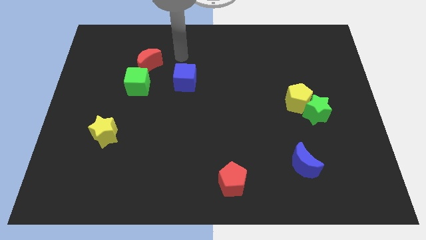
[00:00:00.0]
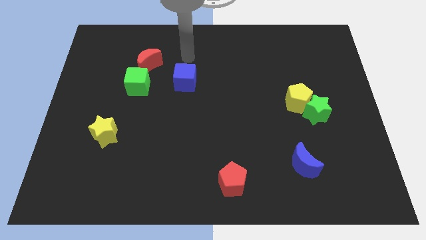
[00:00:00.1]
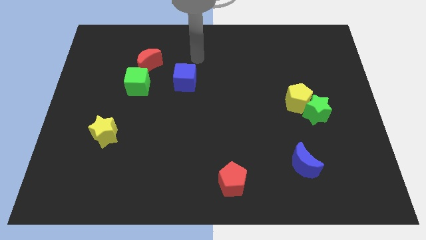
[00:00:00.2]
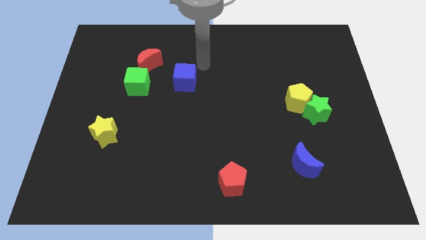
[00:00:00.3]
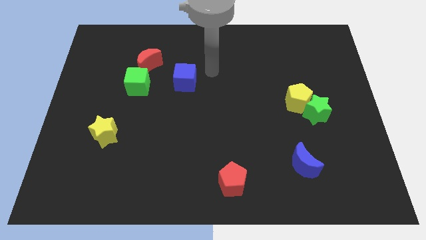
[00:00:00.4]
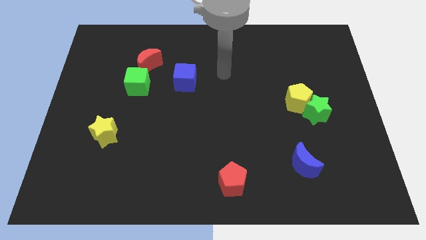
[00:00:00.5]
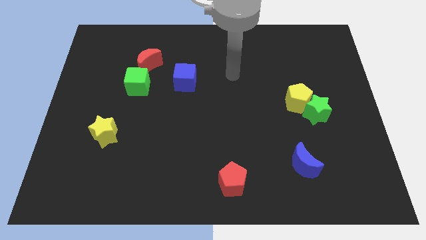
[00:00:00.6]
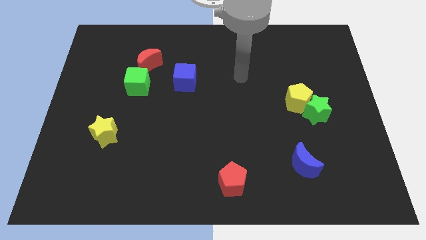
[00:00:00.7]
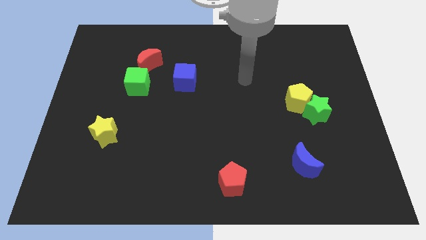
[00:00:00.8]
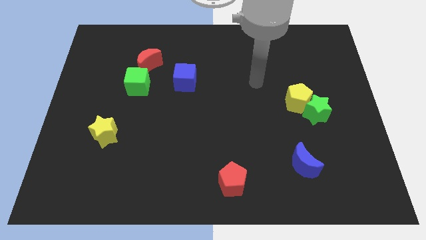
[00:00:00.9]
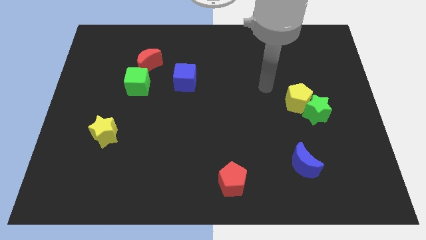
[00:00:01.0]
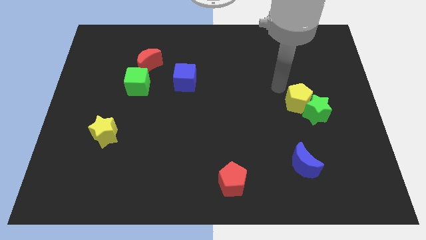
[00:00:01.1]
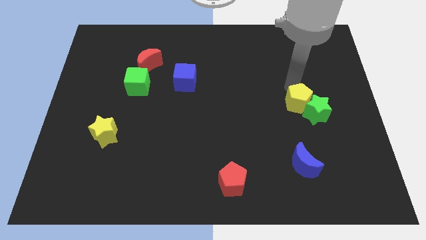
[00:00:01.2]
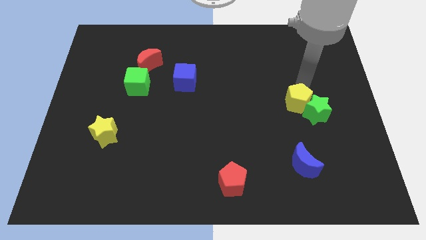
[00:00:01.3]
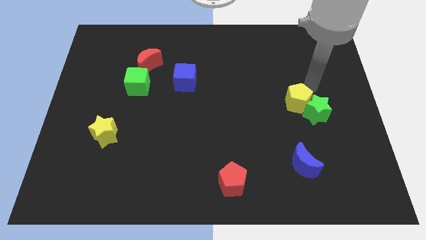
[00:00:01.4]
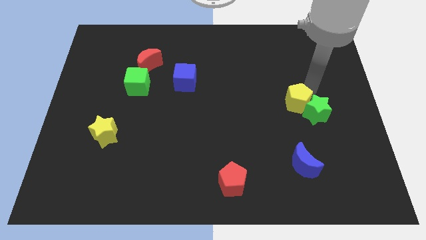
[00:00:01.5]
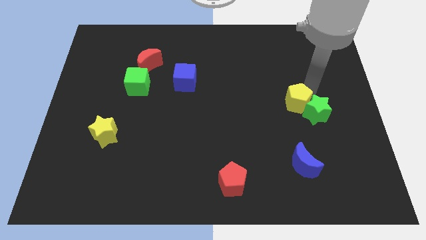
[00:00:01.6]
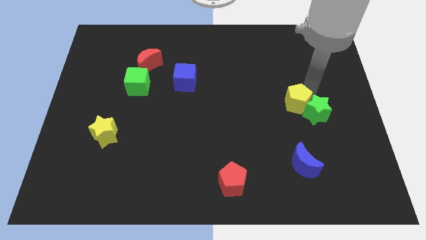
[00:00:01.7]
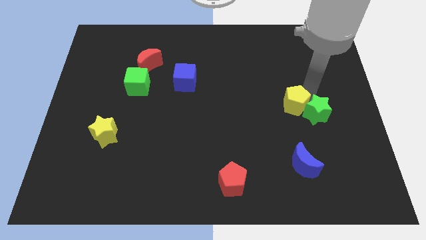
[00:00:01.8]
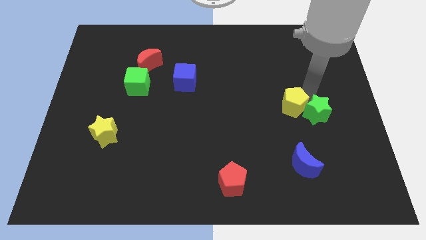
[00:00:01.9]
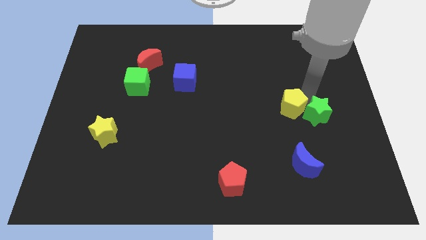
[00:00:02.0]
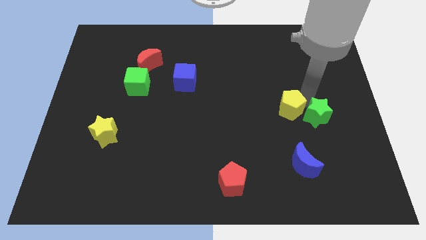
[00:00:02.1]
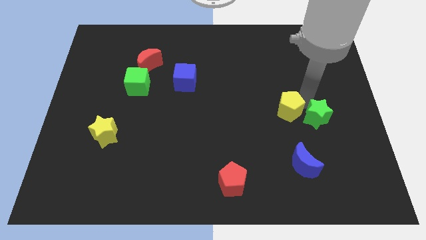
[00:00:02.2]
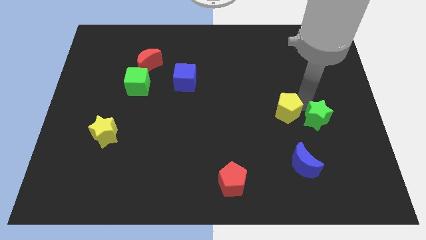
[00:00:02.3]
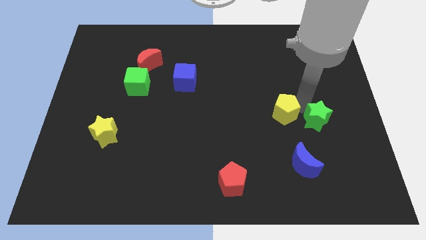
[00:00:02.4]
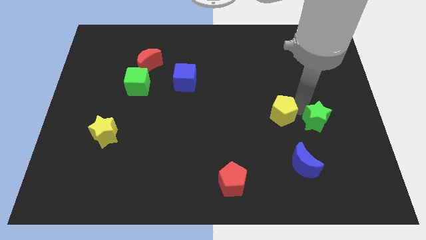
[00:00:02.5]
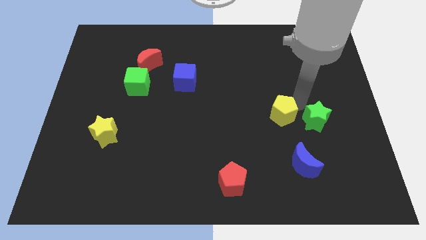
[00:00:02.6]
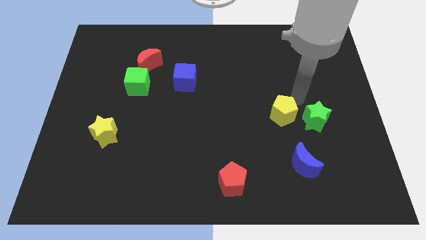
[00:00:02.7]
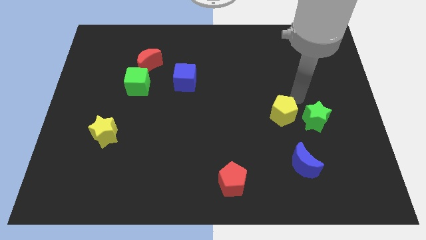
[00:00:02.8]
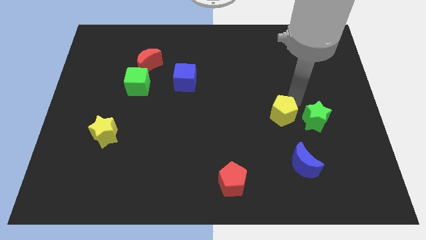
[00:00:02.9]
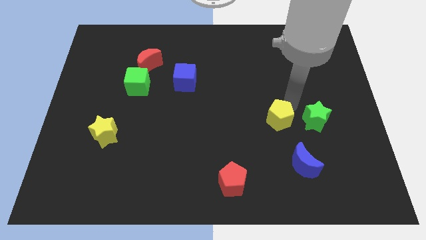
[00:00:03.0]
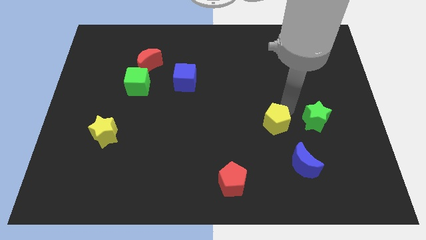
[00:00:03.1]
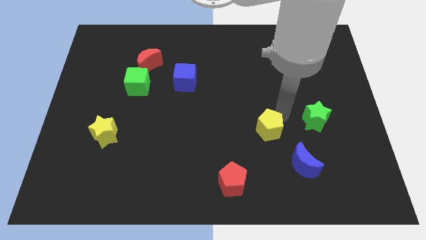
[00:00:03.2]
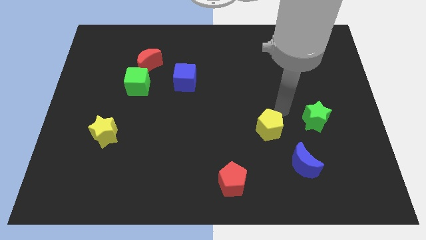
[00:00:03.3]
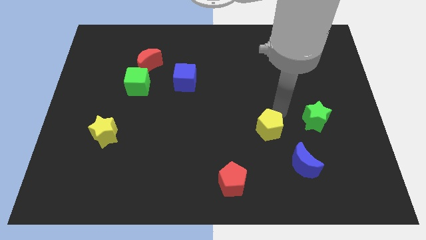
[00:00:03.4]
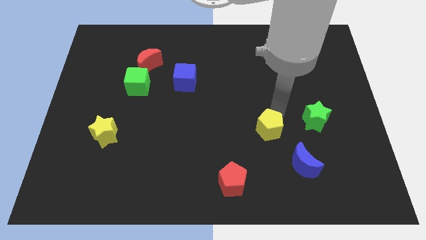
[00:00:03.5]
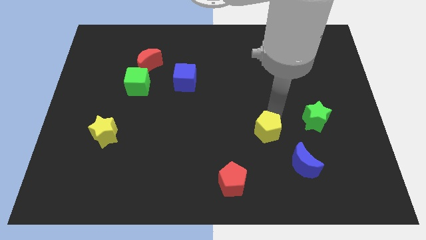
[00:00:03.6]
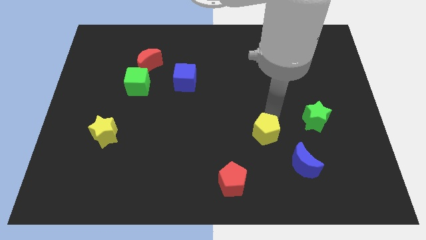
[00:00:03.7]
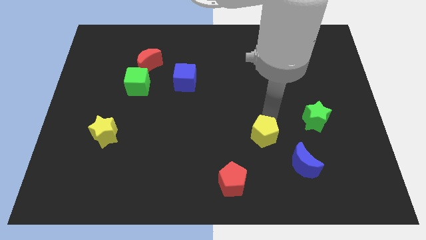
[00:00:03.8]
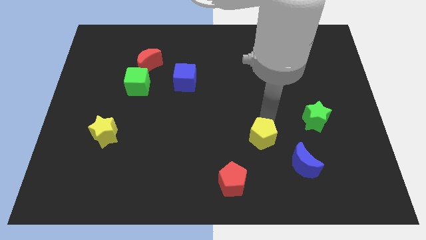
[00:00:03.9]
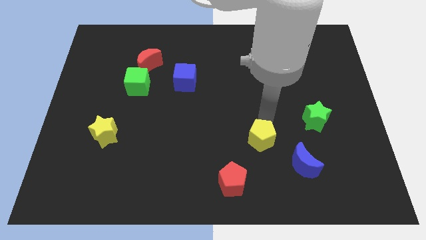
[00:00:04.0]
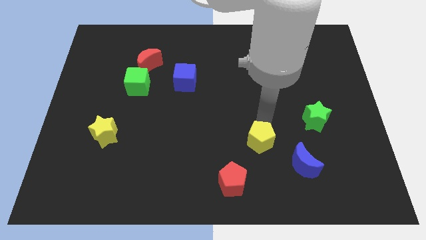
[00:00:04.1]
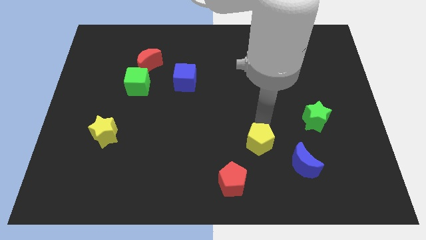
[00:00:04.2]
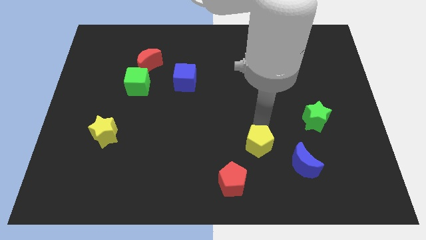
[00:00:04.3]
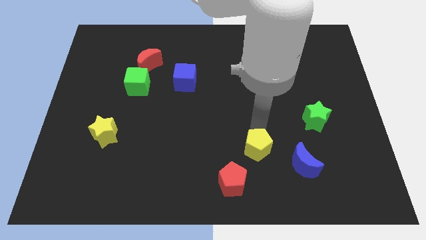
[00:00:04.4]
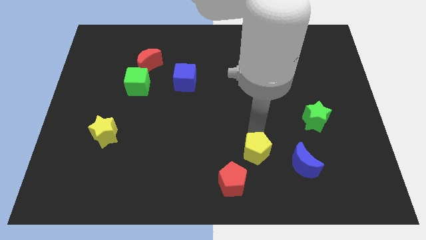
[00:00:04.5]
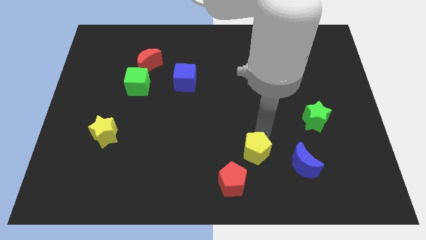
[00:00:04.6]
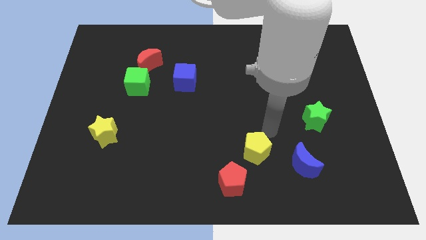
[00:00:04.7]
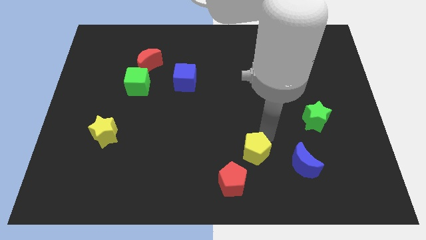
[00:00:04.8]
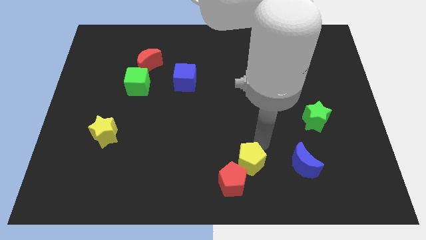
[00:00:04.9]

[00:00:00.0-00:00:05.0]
put the yellow pentagon close to the red pentagon

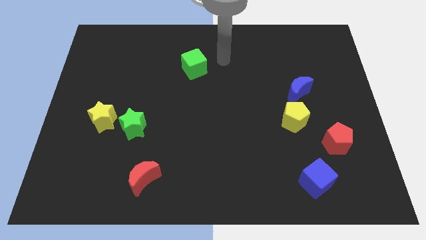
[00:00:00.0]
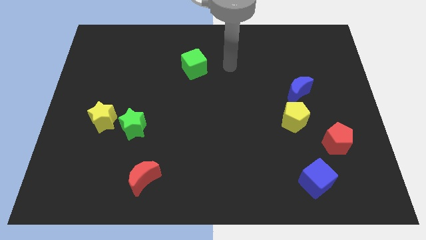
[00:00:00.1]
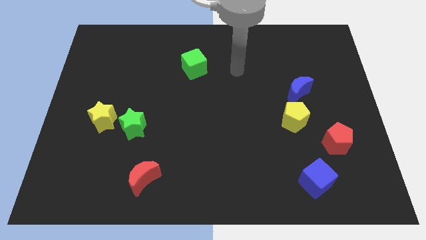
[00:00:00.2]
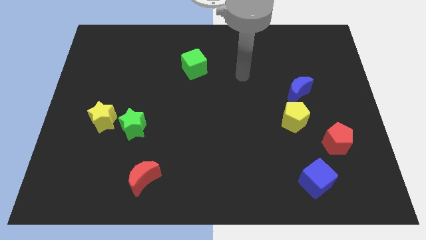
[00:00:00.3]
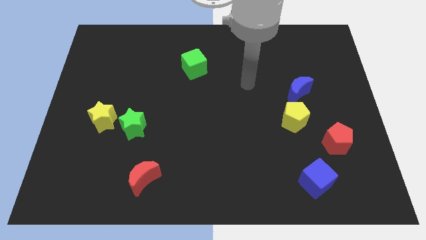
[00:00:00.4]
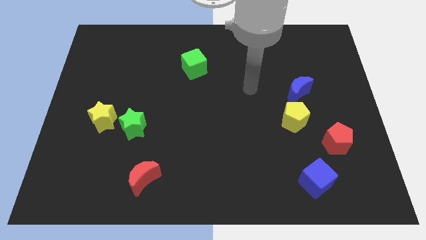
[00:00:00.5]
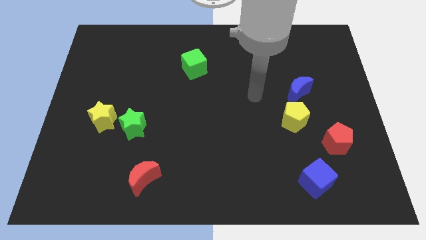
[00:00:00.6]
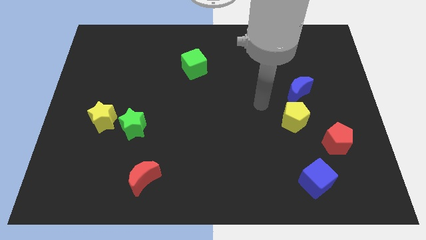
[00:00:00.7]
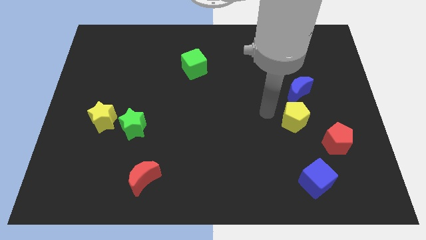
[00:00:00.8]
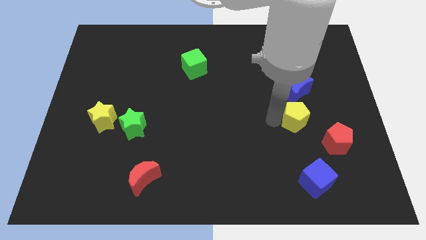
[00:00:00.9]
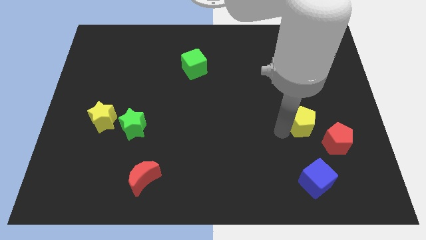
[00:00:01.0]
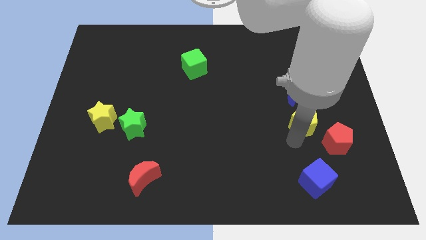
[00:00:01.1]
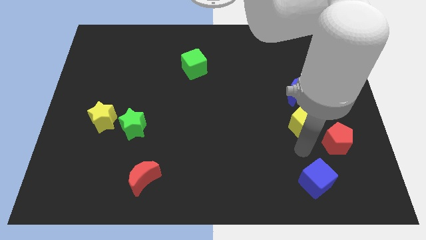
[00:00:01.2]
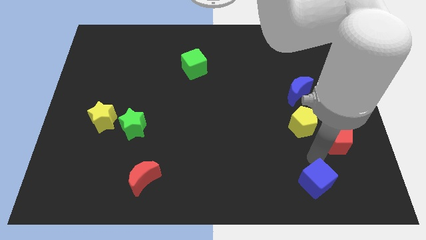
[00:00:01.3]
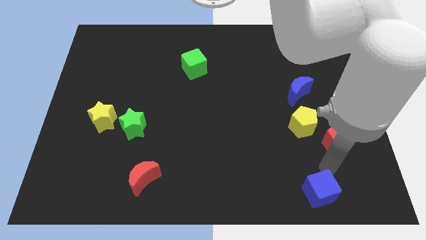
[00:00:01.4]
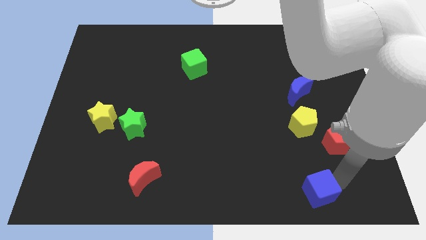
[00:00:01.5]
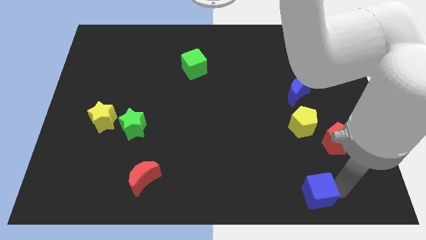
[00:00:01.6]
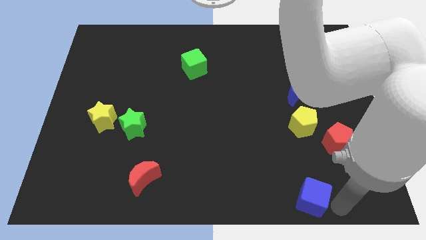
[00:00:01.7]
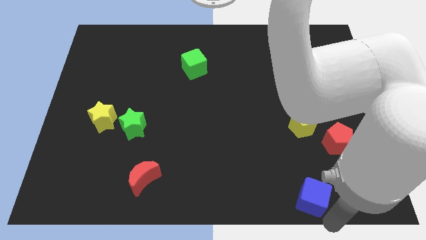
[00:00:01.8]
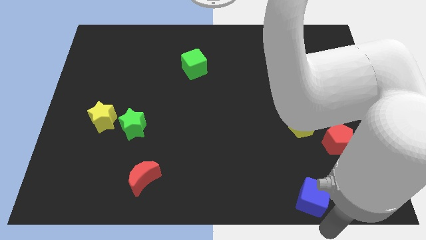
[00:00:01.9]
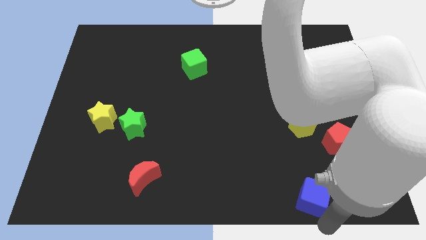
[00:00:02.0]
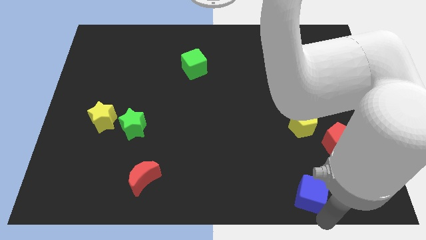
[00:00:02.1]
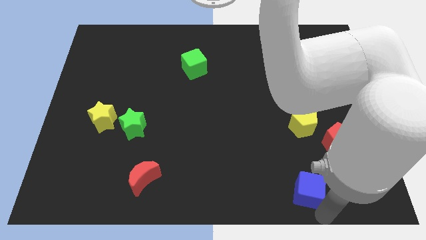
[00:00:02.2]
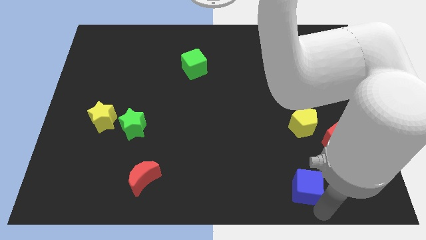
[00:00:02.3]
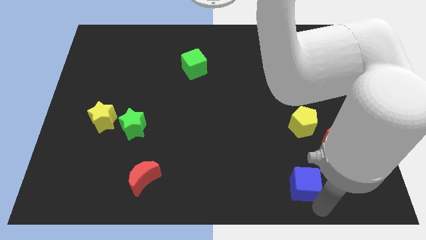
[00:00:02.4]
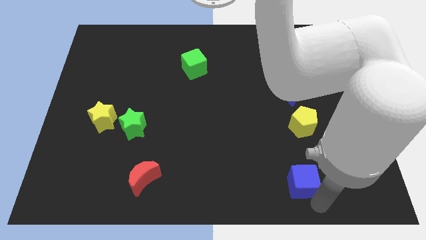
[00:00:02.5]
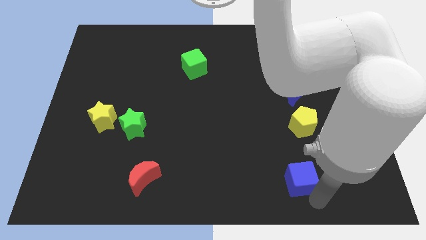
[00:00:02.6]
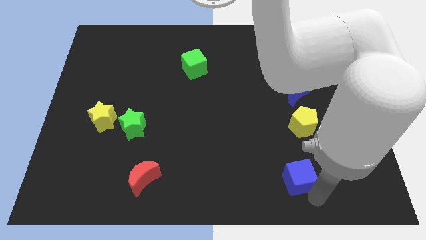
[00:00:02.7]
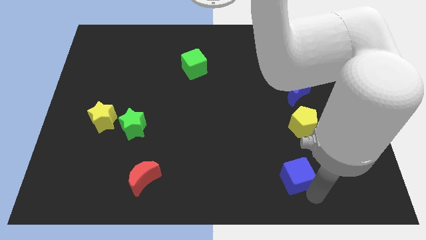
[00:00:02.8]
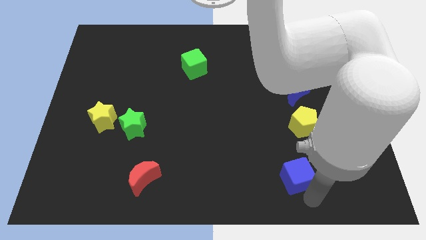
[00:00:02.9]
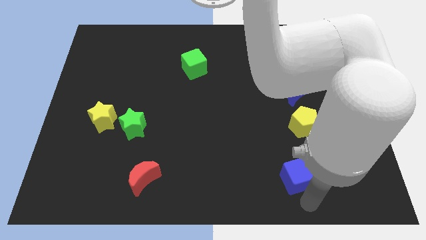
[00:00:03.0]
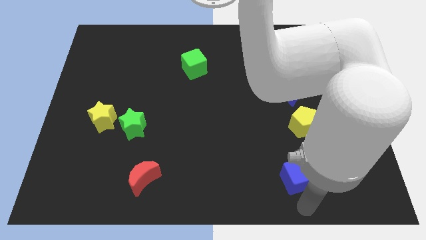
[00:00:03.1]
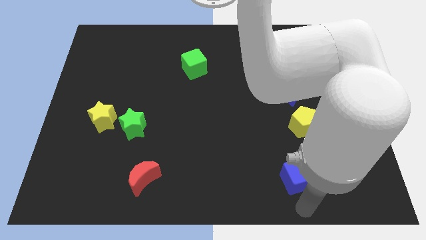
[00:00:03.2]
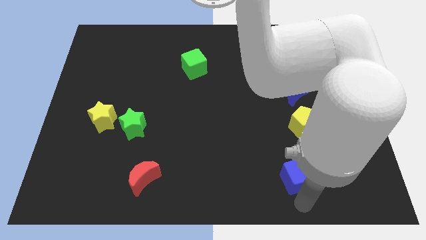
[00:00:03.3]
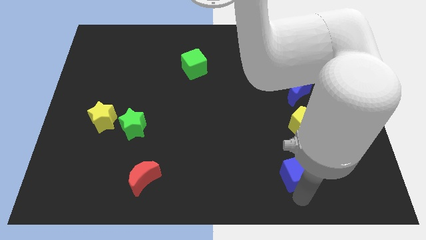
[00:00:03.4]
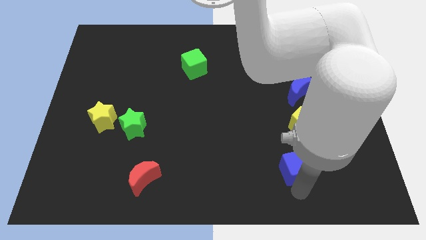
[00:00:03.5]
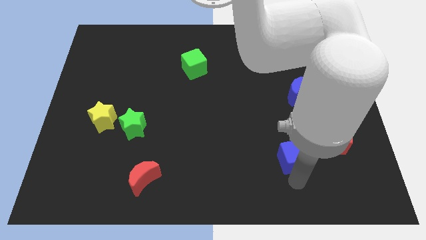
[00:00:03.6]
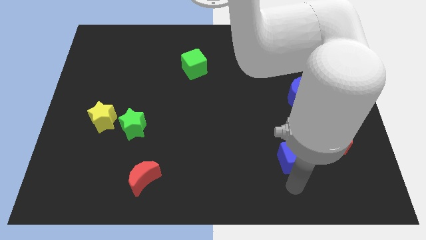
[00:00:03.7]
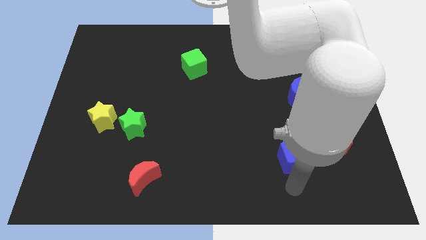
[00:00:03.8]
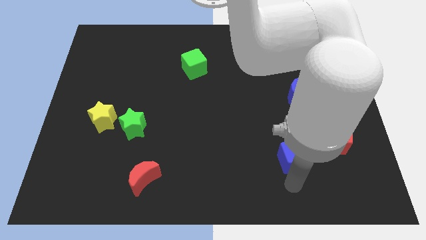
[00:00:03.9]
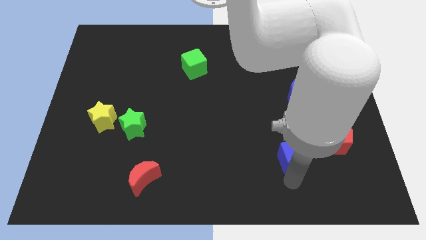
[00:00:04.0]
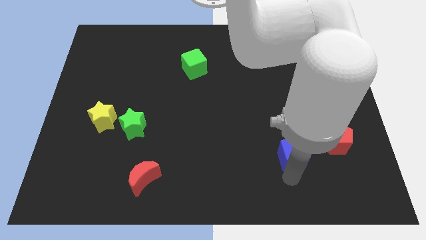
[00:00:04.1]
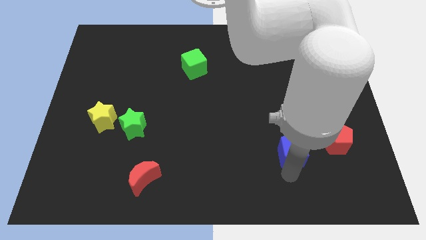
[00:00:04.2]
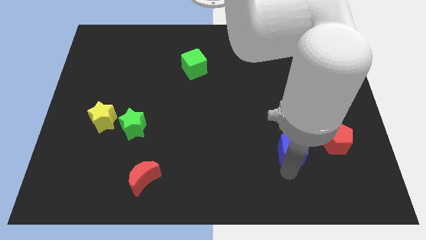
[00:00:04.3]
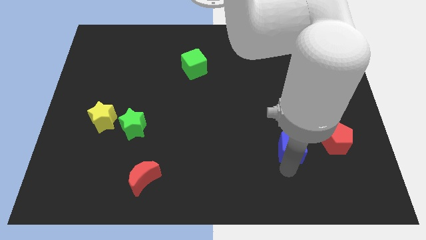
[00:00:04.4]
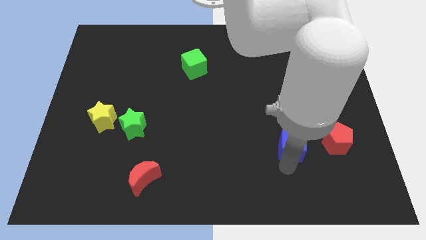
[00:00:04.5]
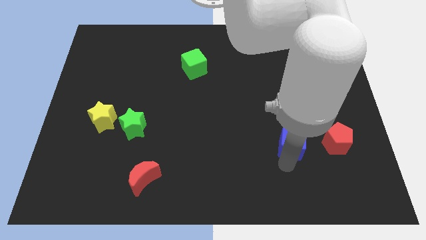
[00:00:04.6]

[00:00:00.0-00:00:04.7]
move the blue cube to the yellow pentagon
